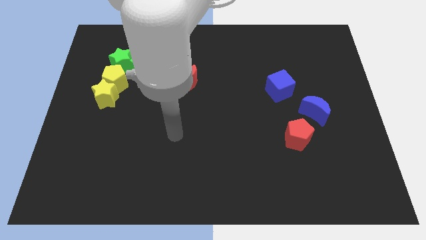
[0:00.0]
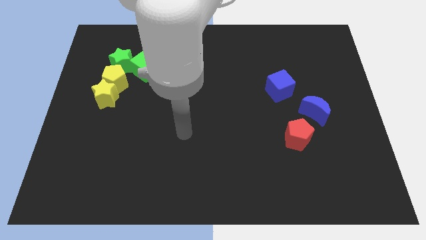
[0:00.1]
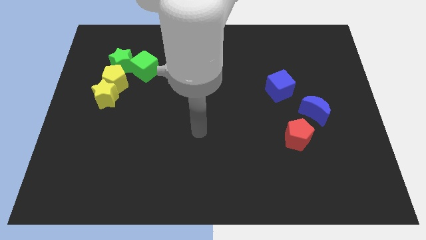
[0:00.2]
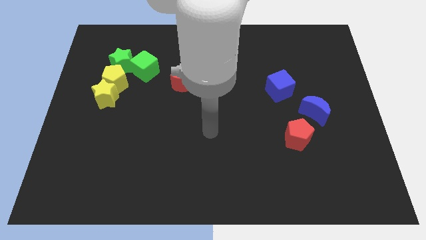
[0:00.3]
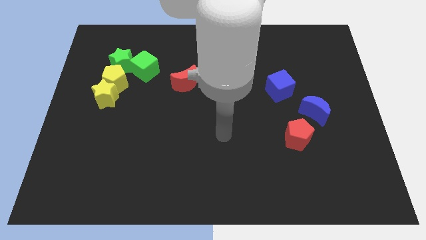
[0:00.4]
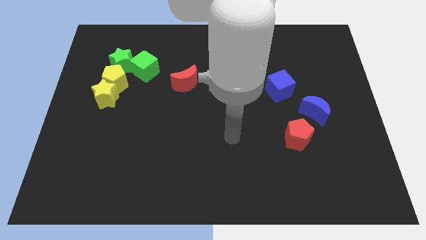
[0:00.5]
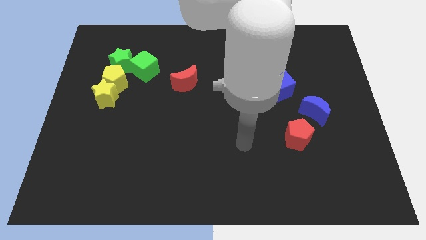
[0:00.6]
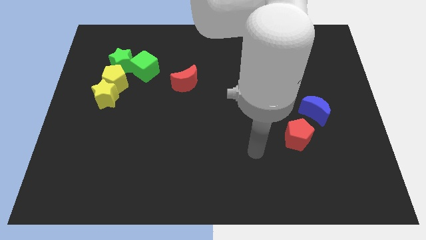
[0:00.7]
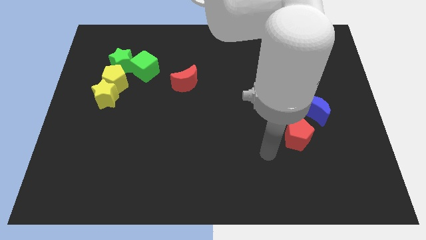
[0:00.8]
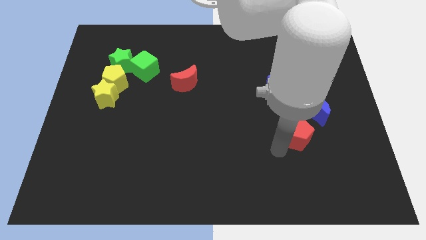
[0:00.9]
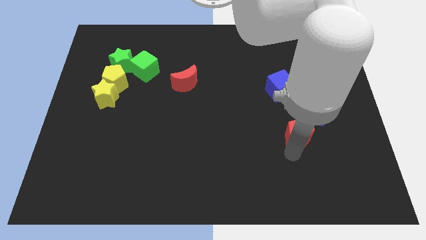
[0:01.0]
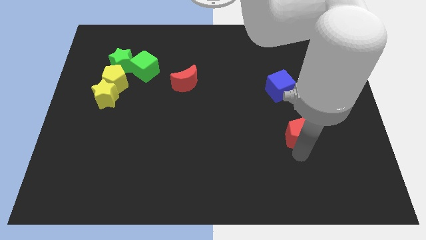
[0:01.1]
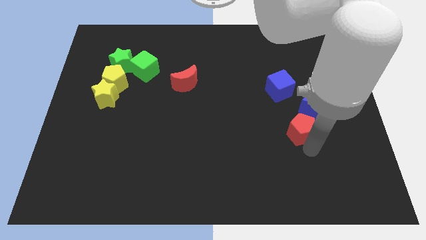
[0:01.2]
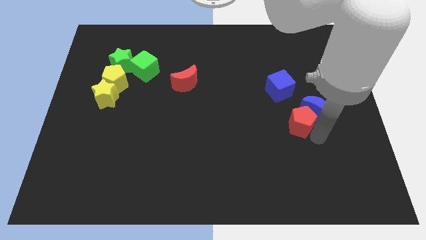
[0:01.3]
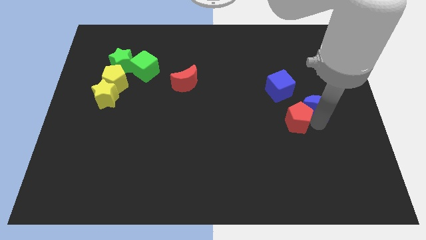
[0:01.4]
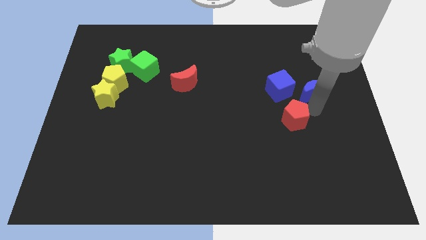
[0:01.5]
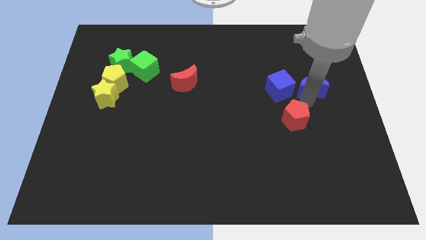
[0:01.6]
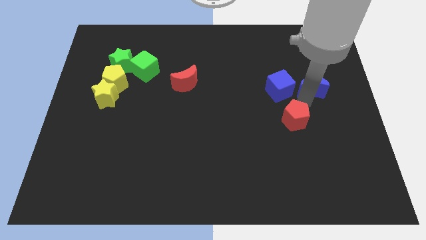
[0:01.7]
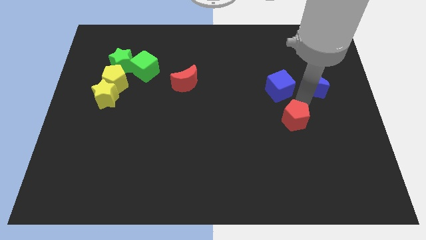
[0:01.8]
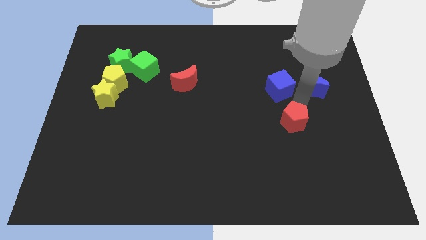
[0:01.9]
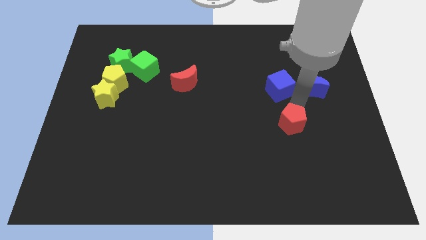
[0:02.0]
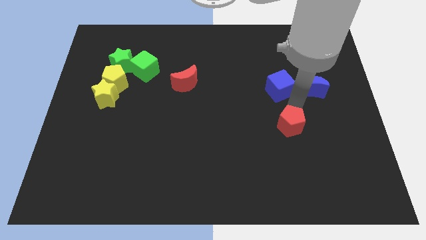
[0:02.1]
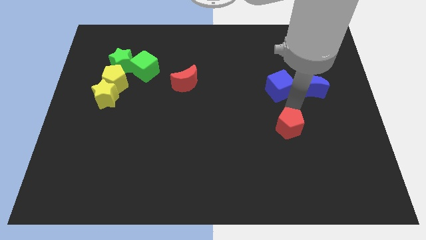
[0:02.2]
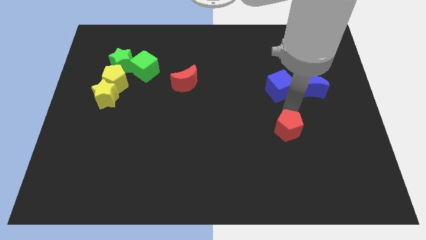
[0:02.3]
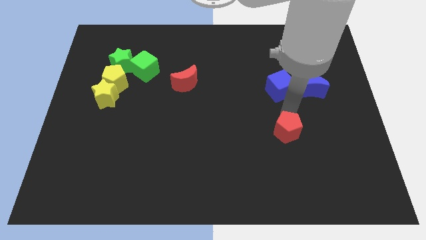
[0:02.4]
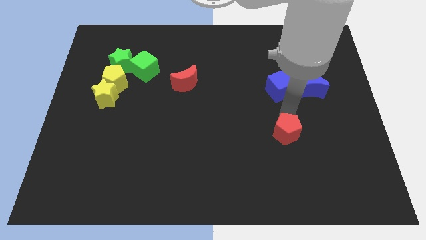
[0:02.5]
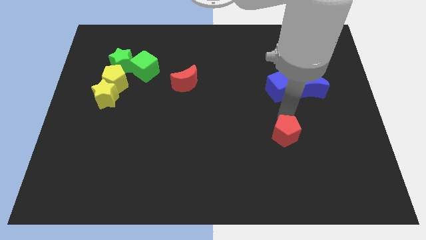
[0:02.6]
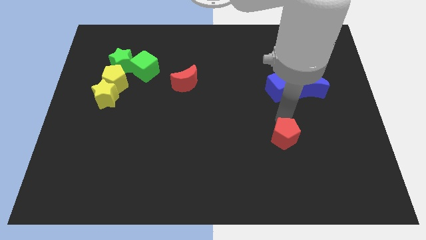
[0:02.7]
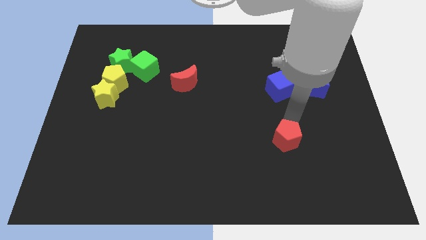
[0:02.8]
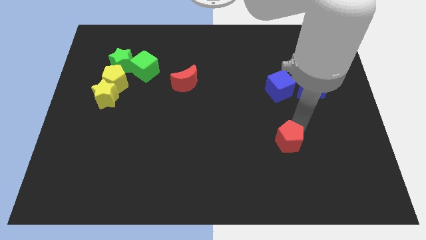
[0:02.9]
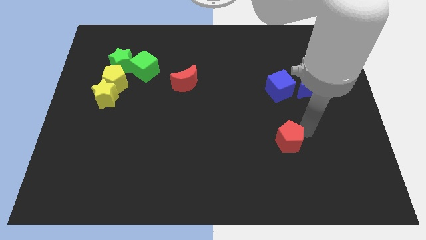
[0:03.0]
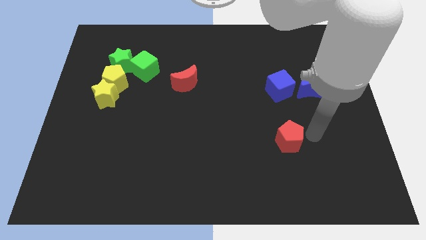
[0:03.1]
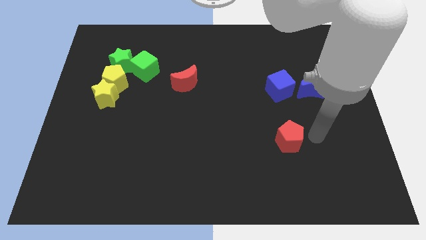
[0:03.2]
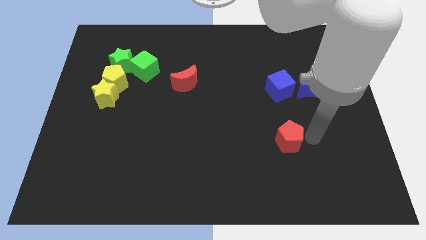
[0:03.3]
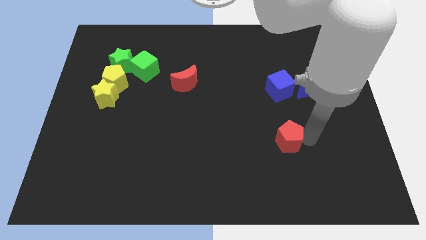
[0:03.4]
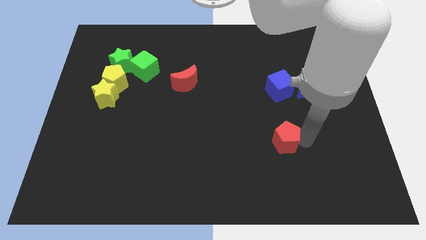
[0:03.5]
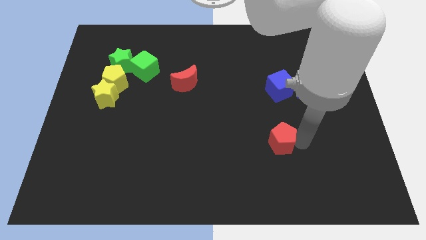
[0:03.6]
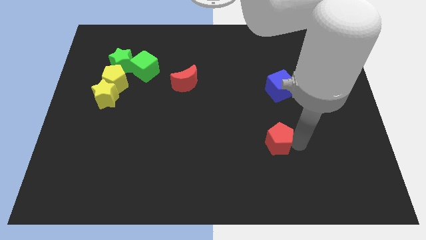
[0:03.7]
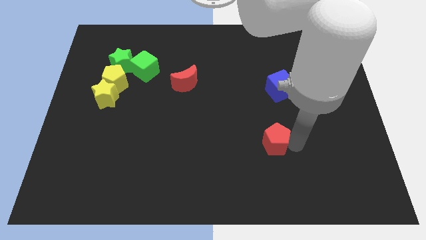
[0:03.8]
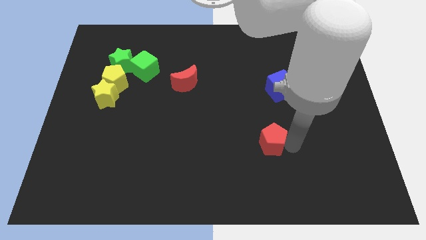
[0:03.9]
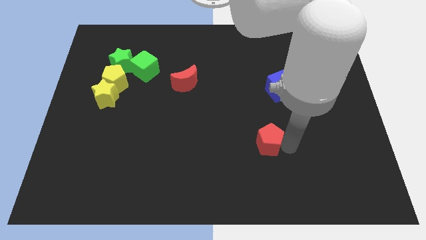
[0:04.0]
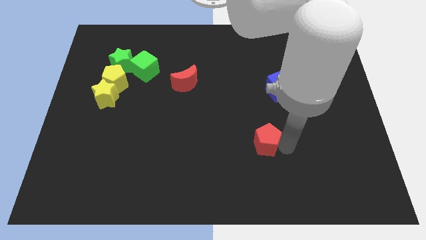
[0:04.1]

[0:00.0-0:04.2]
move the red pentagon a little bit to the left

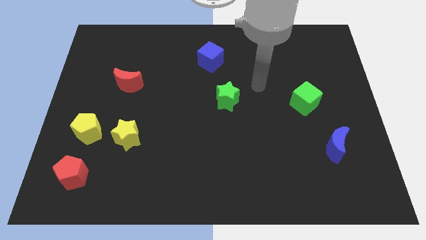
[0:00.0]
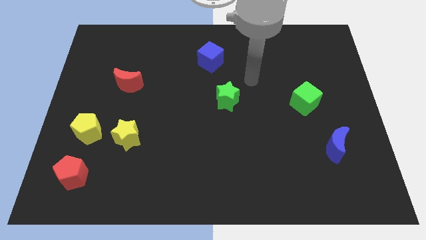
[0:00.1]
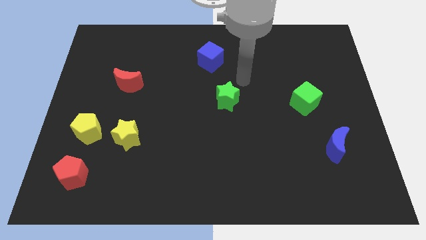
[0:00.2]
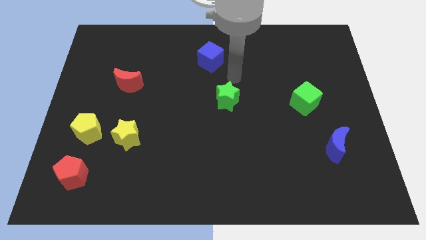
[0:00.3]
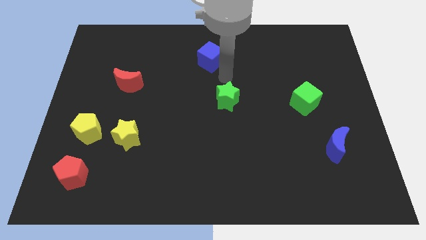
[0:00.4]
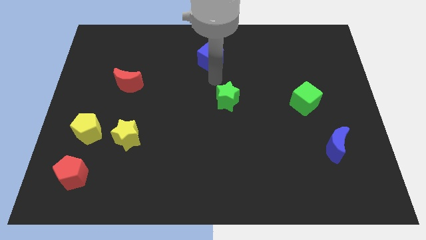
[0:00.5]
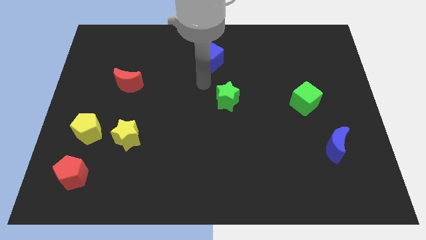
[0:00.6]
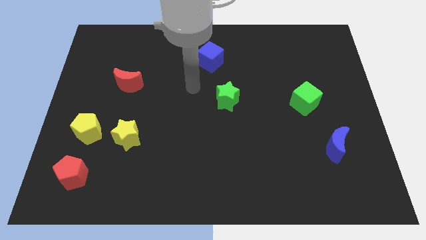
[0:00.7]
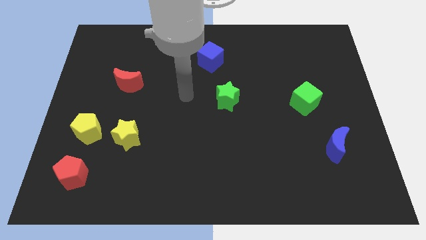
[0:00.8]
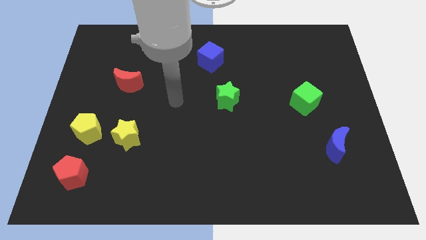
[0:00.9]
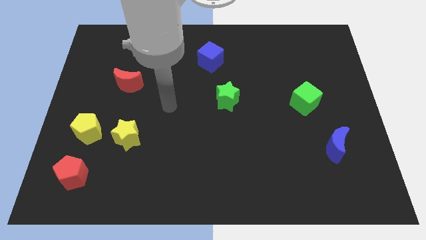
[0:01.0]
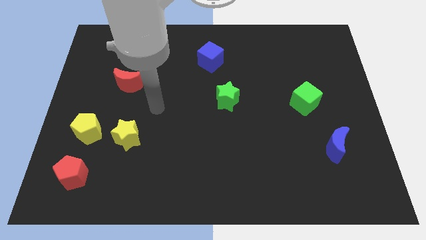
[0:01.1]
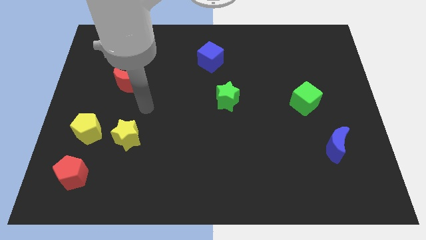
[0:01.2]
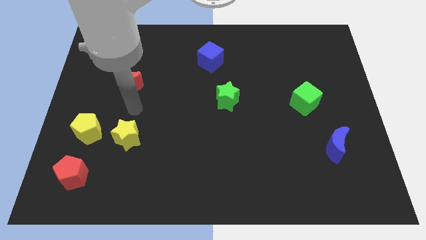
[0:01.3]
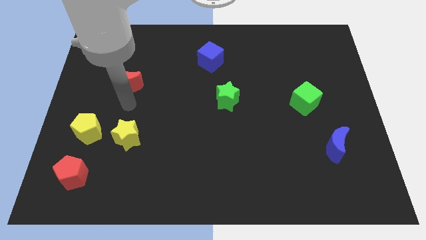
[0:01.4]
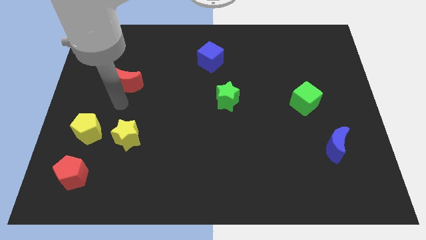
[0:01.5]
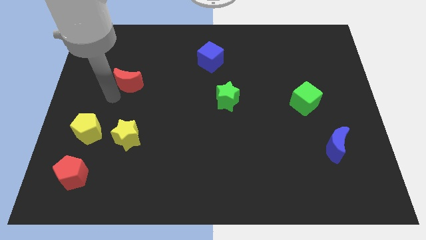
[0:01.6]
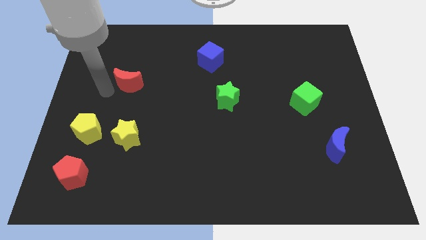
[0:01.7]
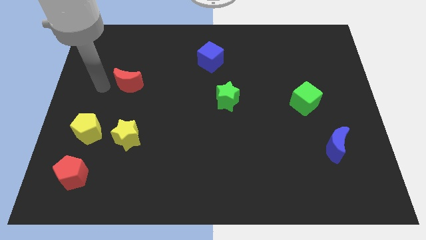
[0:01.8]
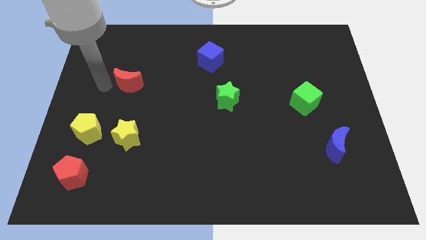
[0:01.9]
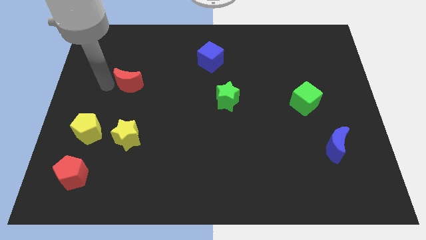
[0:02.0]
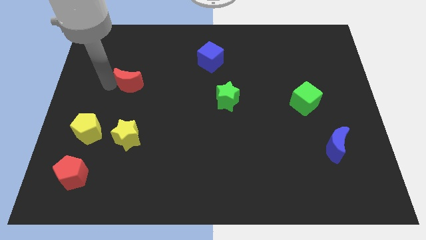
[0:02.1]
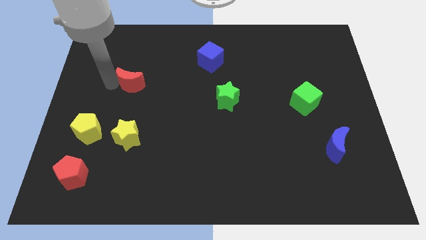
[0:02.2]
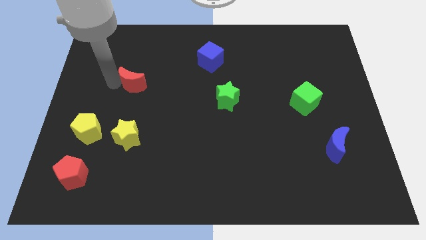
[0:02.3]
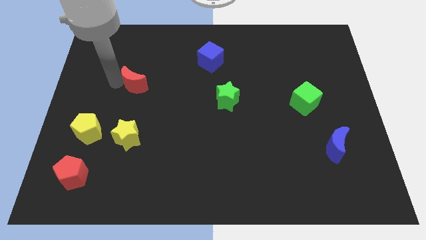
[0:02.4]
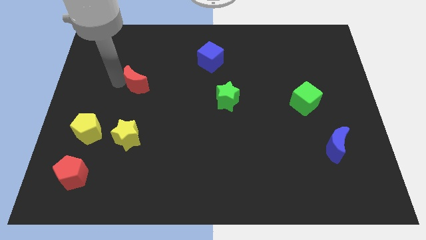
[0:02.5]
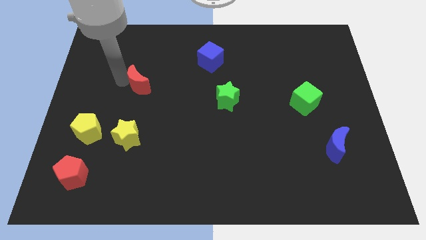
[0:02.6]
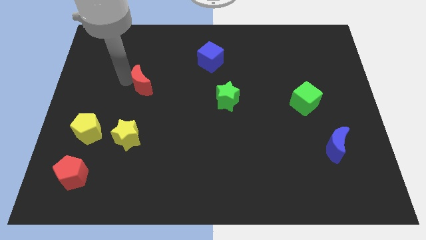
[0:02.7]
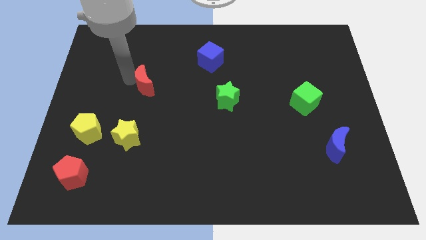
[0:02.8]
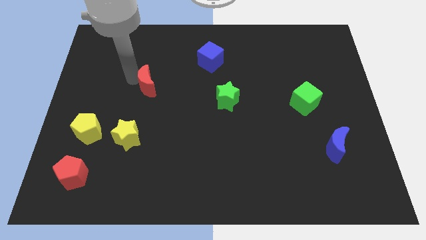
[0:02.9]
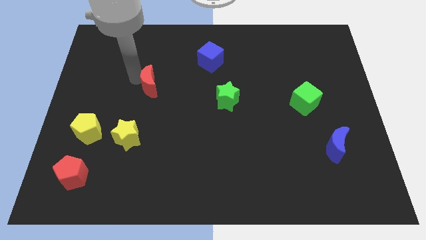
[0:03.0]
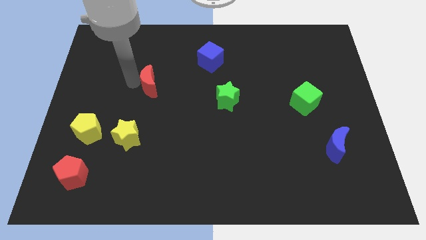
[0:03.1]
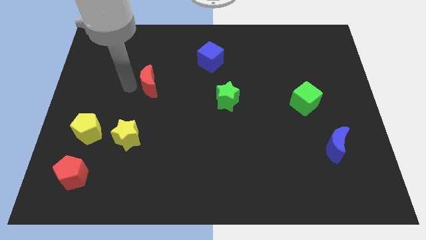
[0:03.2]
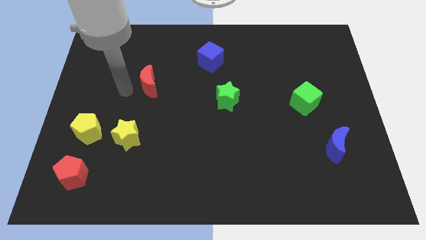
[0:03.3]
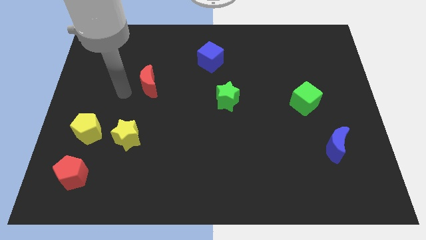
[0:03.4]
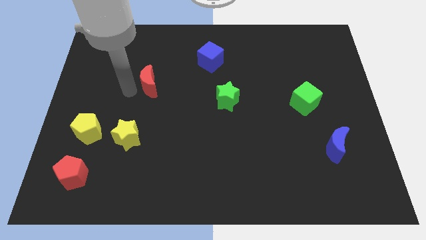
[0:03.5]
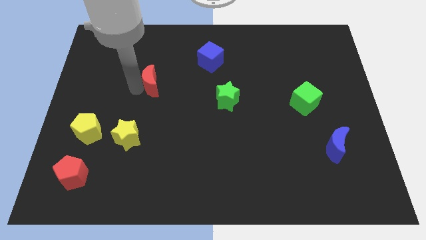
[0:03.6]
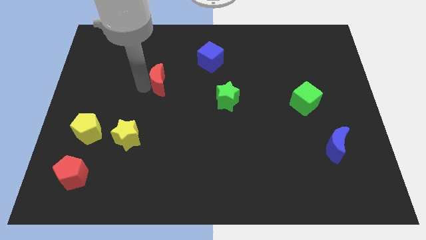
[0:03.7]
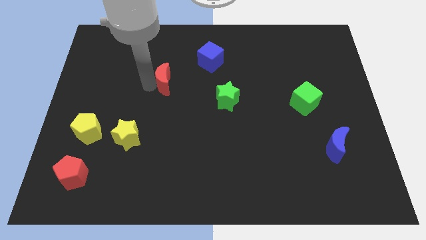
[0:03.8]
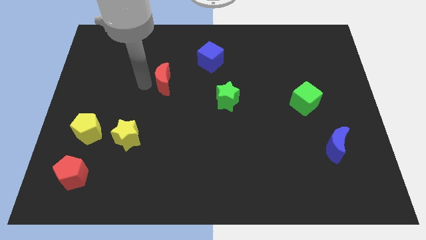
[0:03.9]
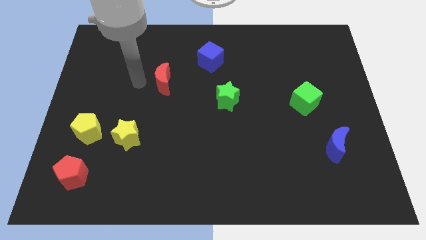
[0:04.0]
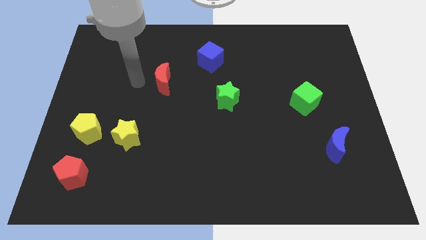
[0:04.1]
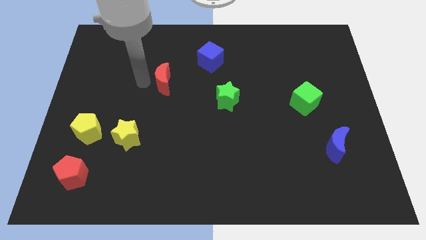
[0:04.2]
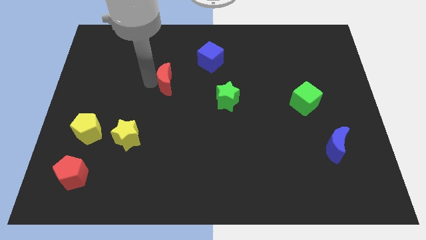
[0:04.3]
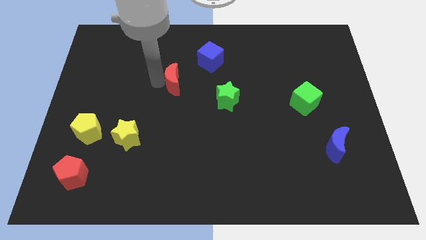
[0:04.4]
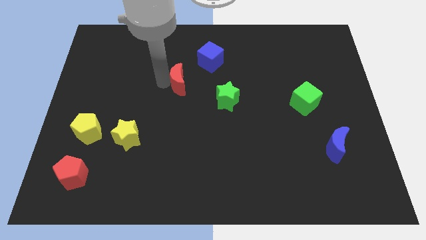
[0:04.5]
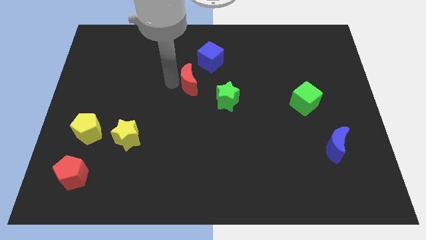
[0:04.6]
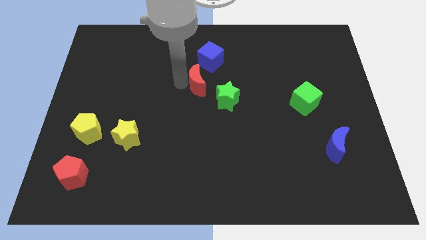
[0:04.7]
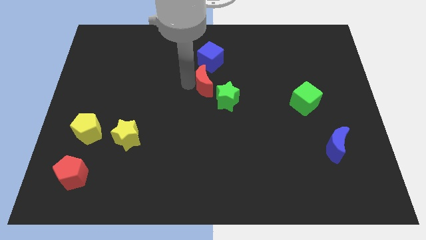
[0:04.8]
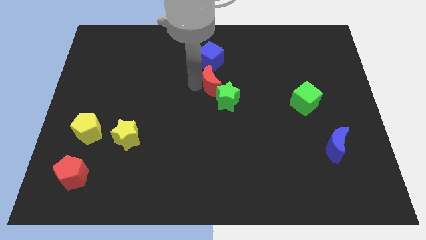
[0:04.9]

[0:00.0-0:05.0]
push the red moon to the right
